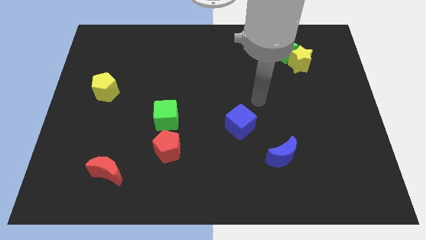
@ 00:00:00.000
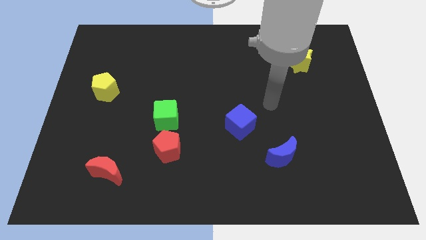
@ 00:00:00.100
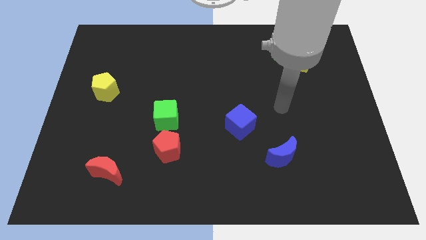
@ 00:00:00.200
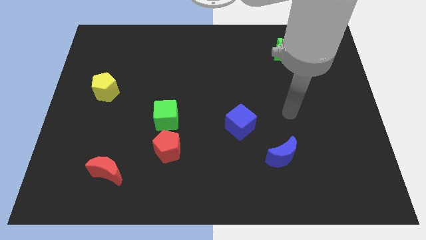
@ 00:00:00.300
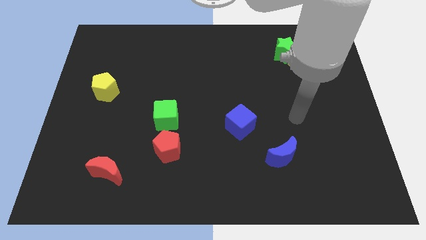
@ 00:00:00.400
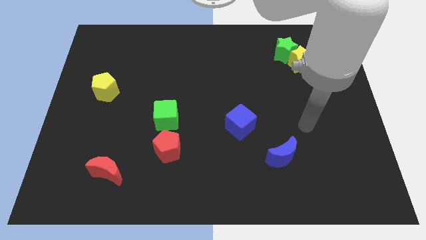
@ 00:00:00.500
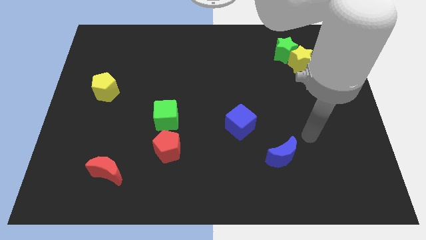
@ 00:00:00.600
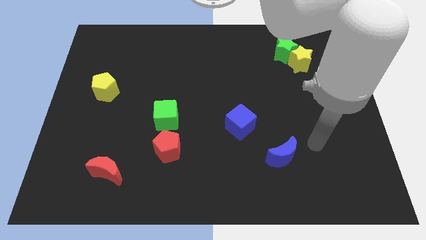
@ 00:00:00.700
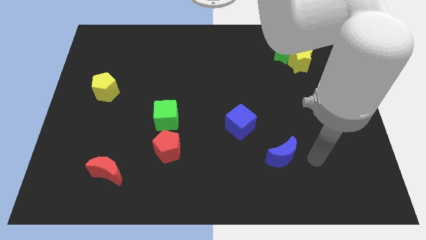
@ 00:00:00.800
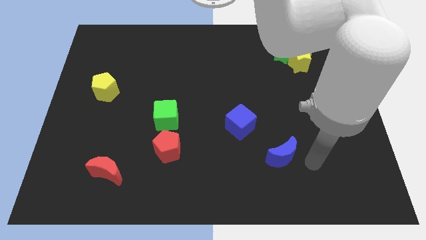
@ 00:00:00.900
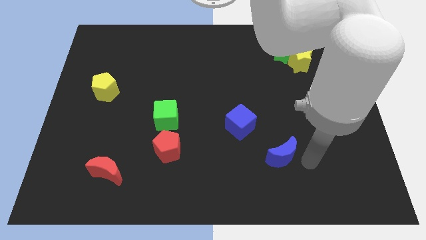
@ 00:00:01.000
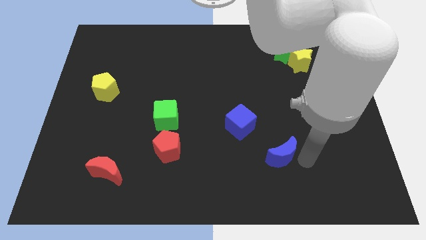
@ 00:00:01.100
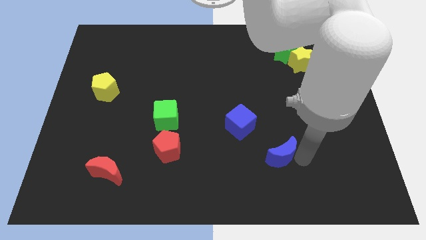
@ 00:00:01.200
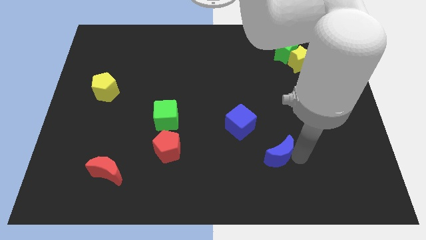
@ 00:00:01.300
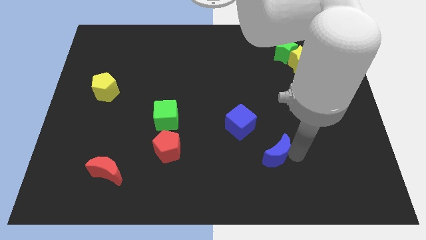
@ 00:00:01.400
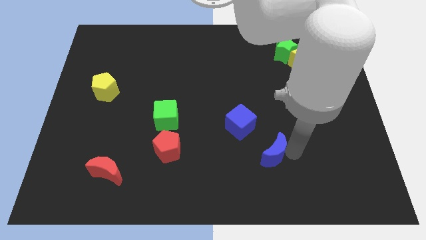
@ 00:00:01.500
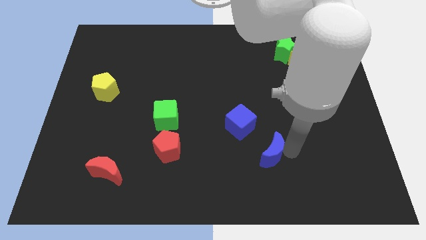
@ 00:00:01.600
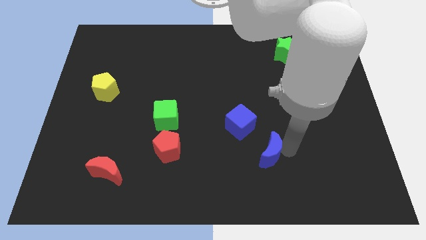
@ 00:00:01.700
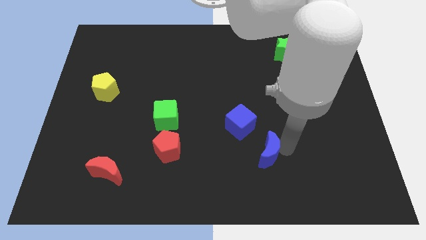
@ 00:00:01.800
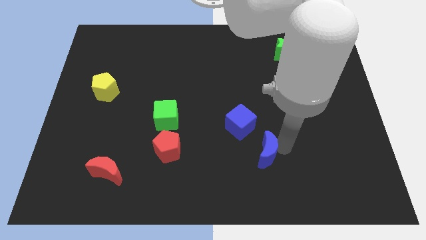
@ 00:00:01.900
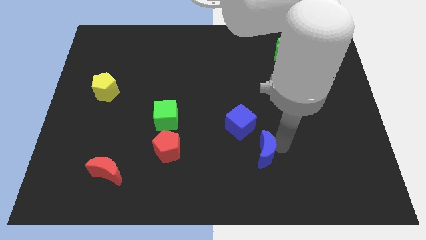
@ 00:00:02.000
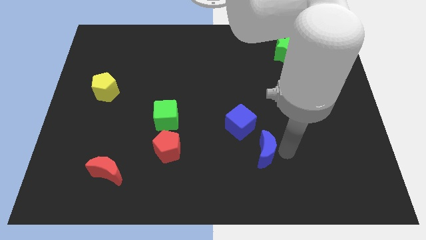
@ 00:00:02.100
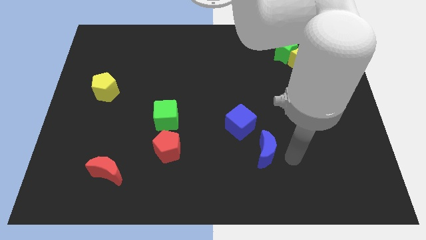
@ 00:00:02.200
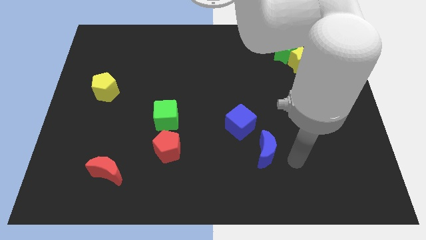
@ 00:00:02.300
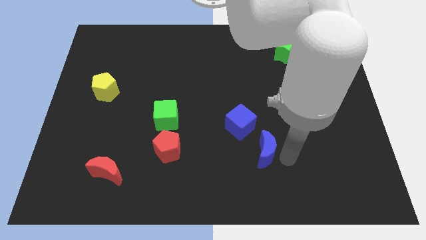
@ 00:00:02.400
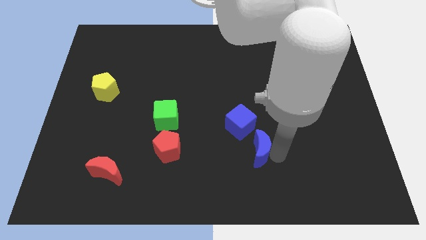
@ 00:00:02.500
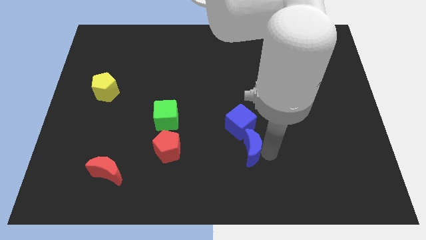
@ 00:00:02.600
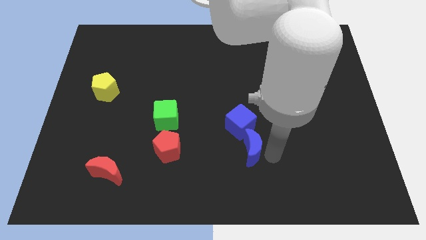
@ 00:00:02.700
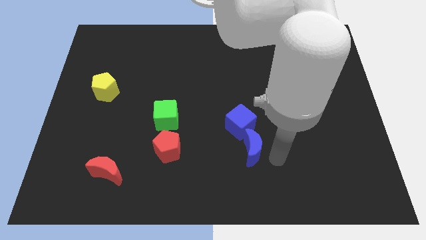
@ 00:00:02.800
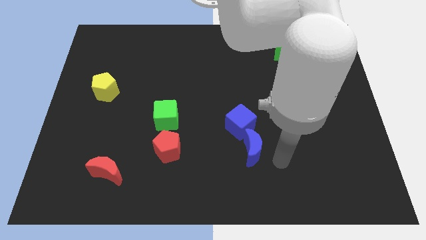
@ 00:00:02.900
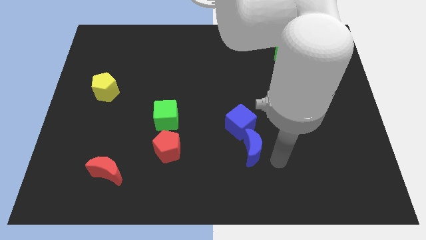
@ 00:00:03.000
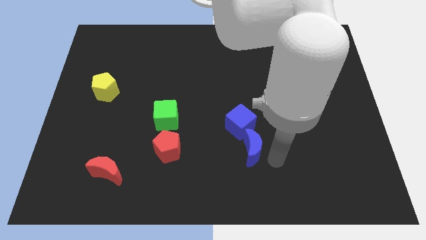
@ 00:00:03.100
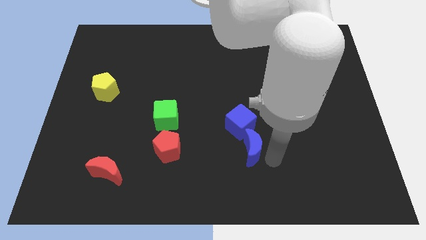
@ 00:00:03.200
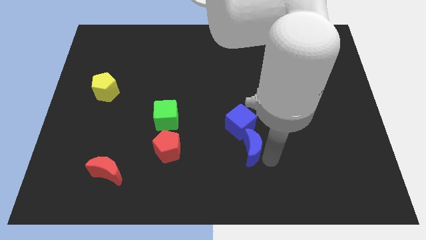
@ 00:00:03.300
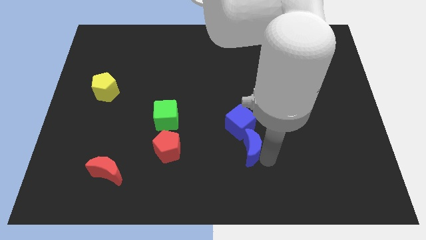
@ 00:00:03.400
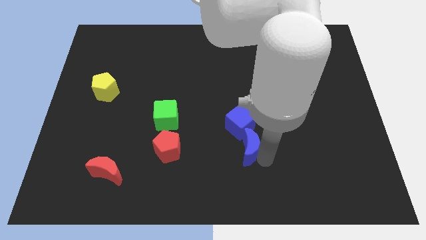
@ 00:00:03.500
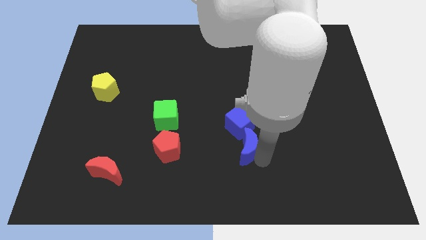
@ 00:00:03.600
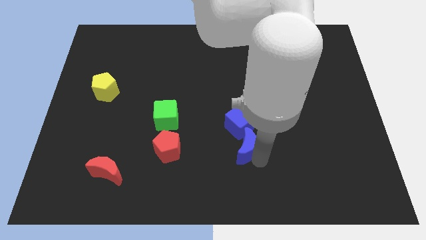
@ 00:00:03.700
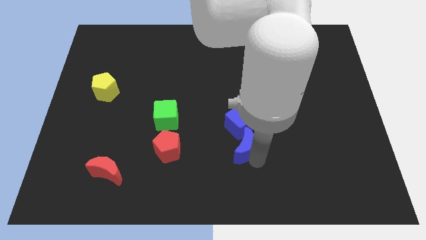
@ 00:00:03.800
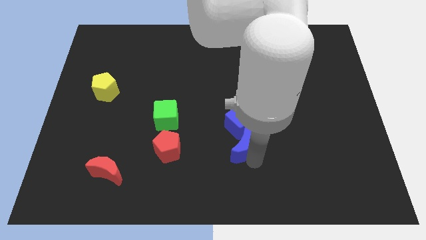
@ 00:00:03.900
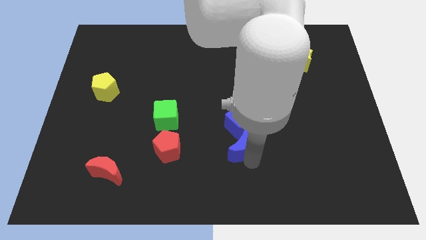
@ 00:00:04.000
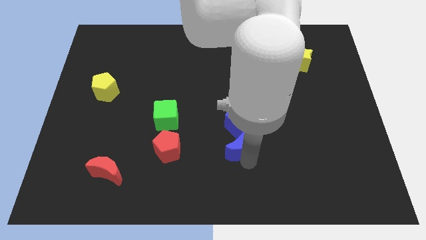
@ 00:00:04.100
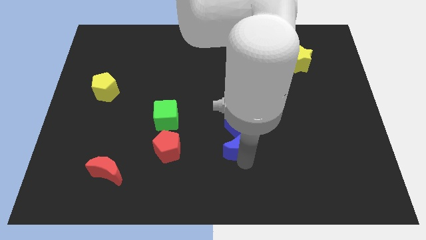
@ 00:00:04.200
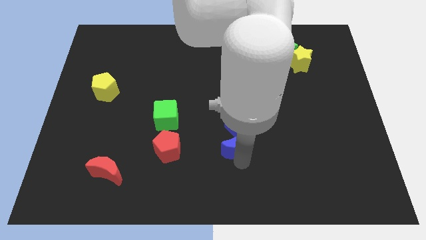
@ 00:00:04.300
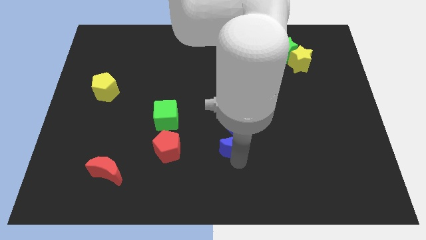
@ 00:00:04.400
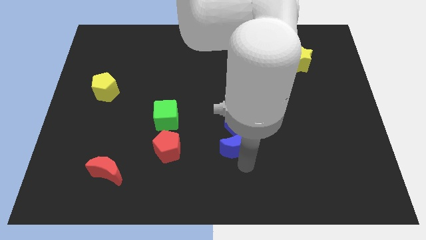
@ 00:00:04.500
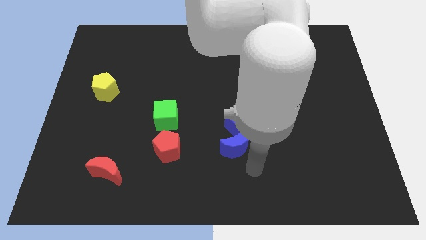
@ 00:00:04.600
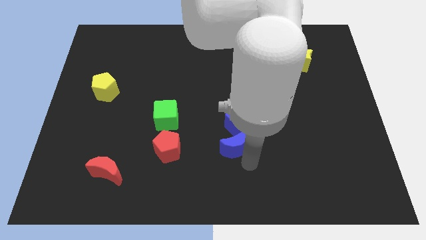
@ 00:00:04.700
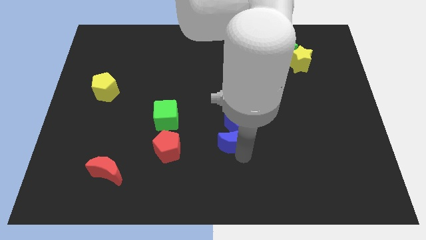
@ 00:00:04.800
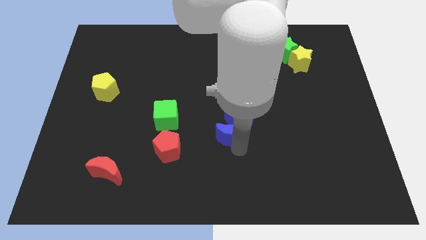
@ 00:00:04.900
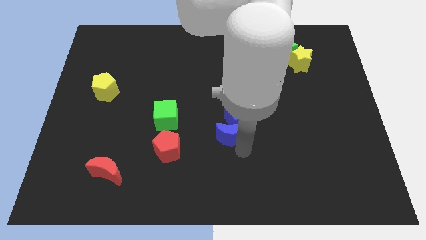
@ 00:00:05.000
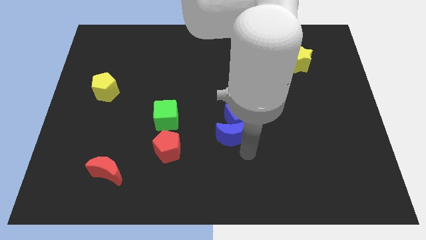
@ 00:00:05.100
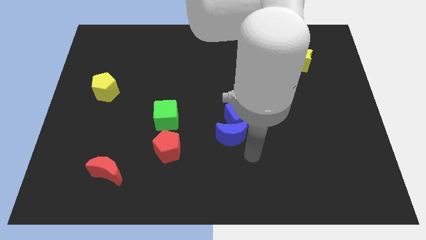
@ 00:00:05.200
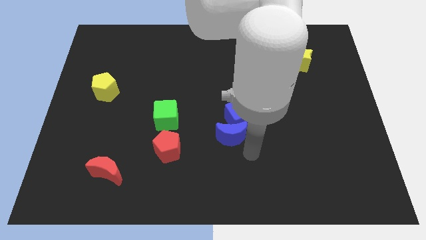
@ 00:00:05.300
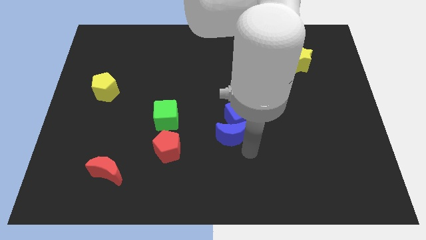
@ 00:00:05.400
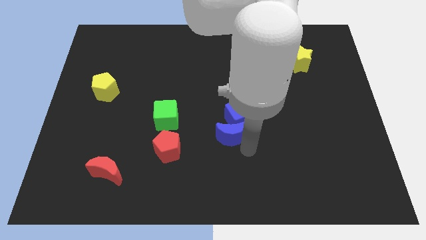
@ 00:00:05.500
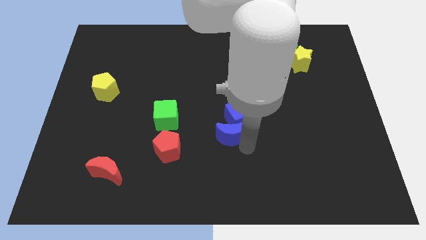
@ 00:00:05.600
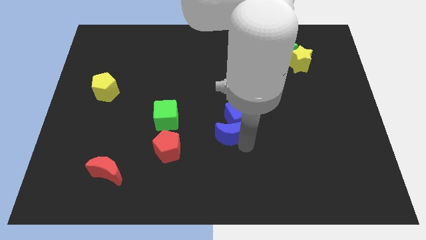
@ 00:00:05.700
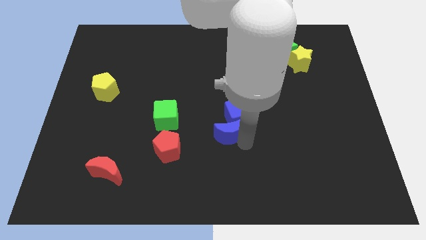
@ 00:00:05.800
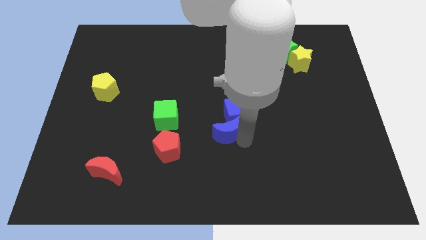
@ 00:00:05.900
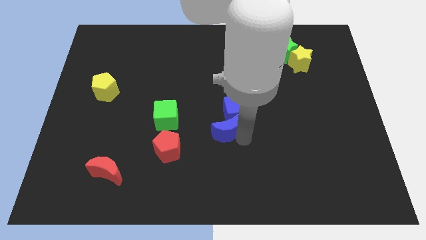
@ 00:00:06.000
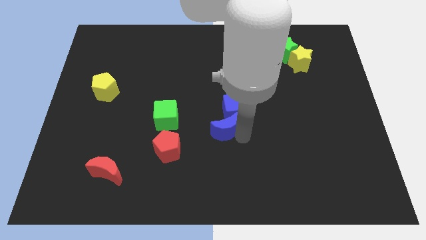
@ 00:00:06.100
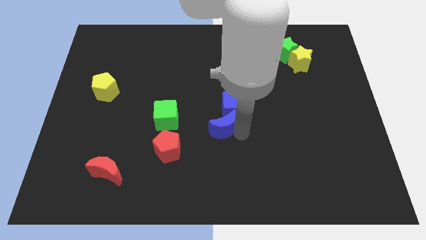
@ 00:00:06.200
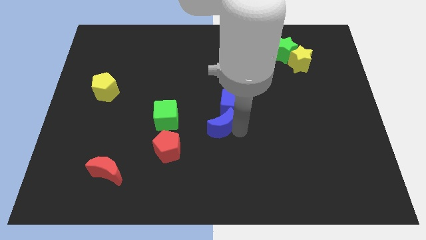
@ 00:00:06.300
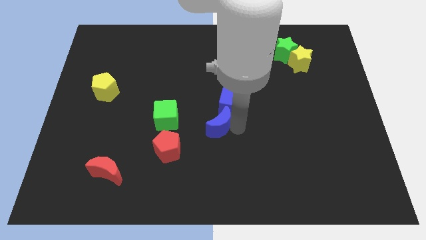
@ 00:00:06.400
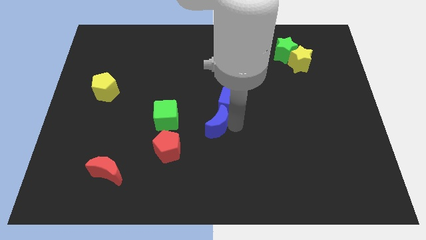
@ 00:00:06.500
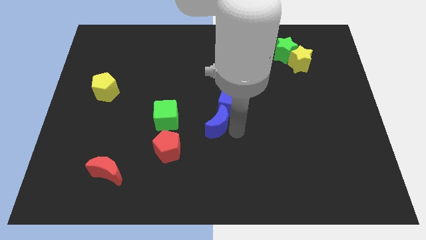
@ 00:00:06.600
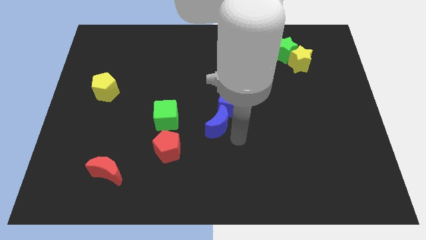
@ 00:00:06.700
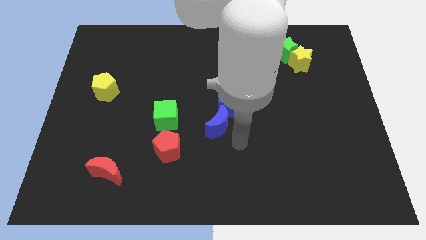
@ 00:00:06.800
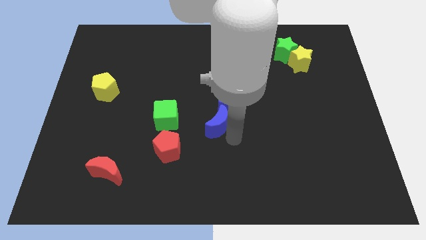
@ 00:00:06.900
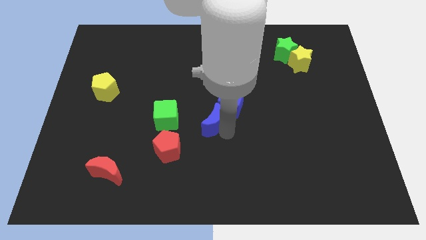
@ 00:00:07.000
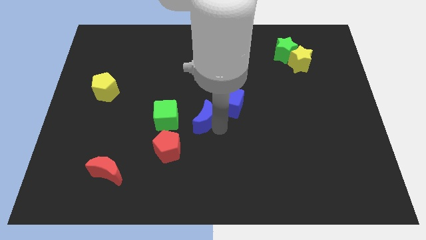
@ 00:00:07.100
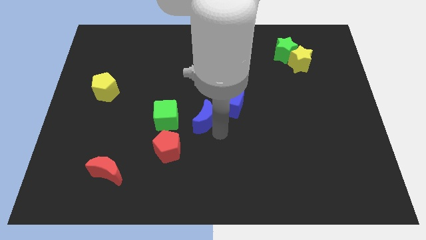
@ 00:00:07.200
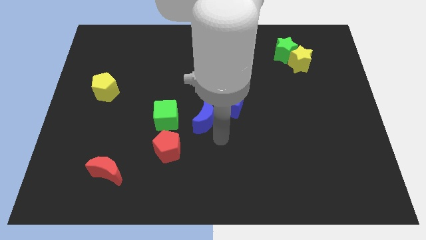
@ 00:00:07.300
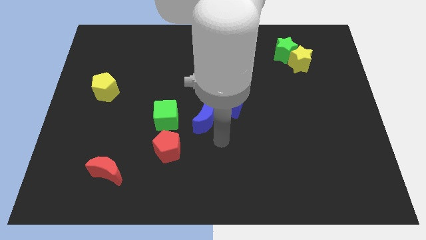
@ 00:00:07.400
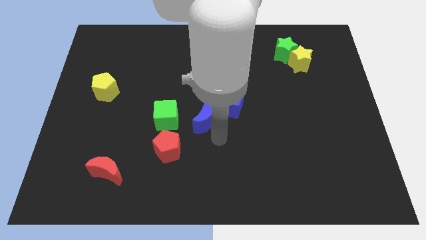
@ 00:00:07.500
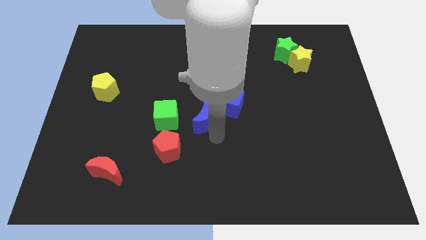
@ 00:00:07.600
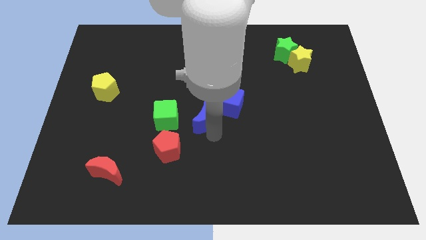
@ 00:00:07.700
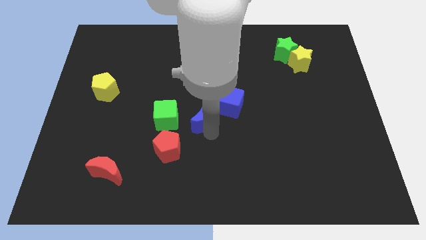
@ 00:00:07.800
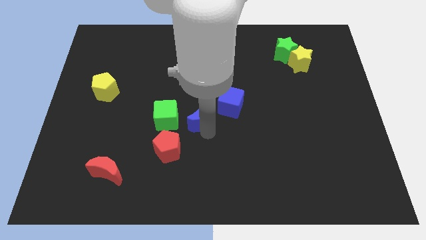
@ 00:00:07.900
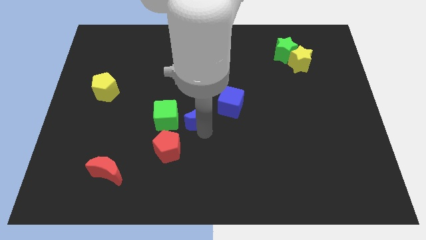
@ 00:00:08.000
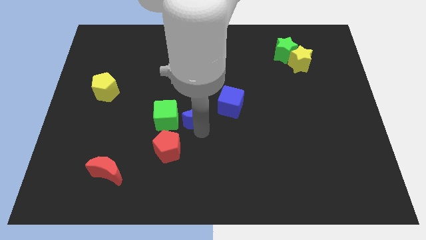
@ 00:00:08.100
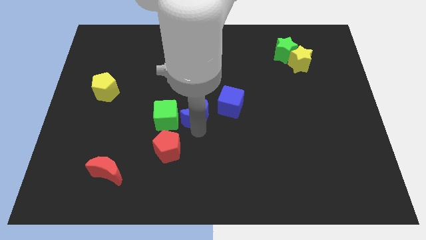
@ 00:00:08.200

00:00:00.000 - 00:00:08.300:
put the blue moon diagonally up and to the right of the green cube
